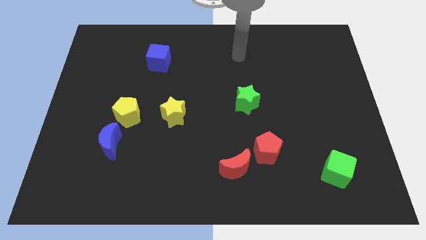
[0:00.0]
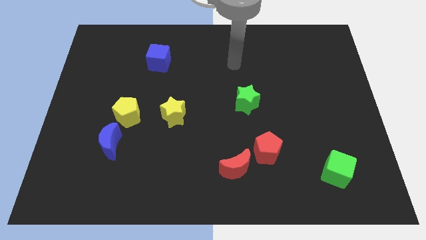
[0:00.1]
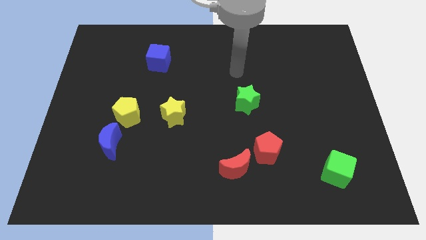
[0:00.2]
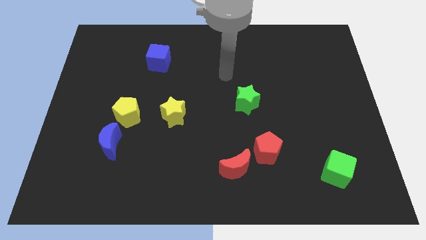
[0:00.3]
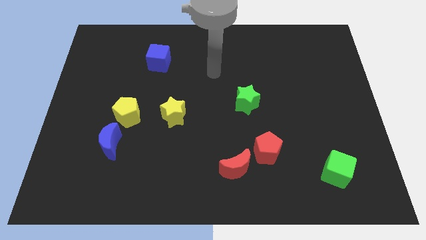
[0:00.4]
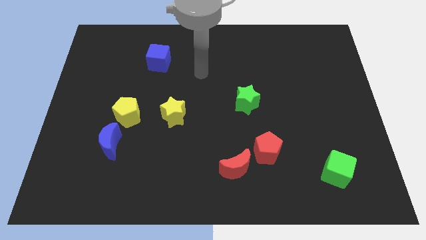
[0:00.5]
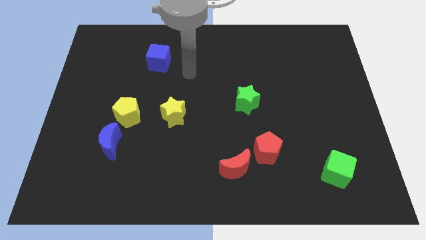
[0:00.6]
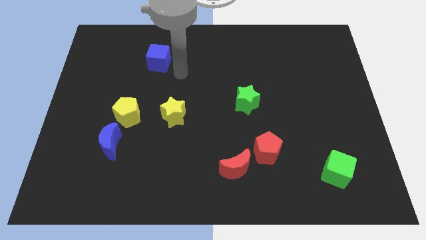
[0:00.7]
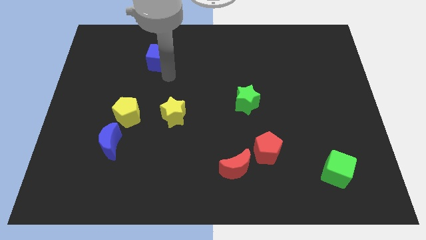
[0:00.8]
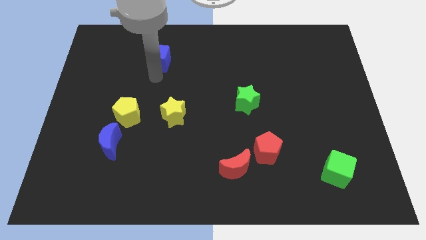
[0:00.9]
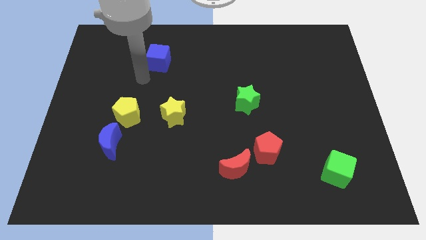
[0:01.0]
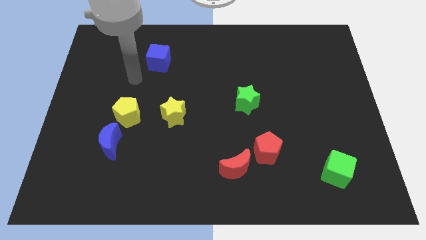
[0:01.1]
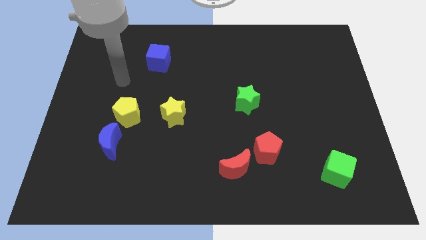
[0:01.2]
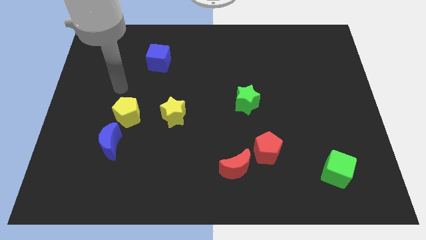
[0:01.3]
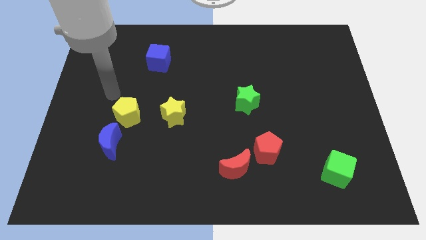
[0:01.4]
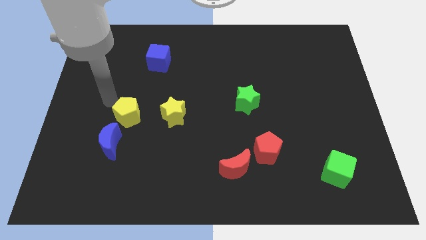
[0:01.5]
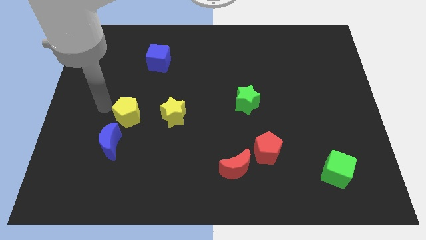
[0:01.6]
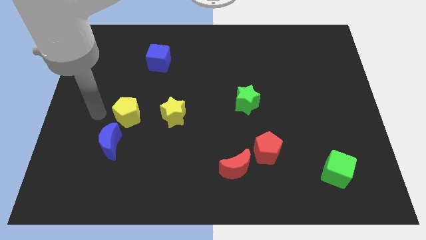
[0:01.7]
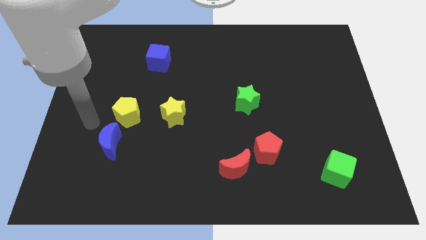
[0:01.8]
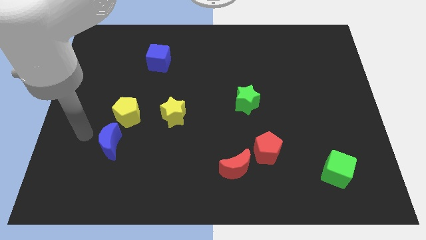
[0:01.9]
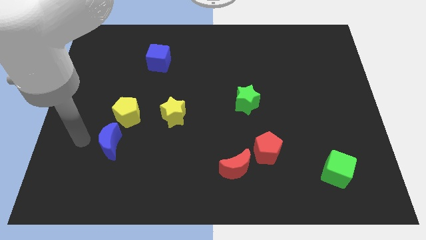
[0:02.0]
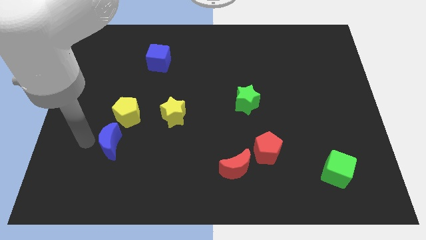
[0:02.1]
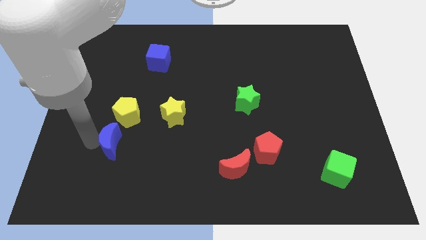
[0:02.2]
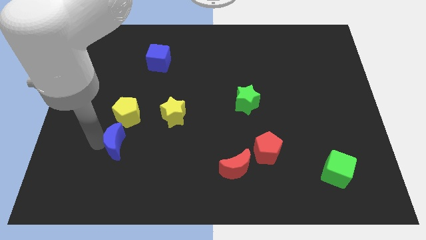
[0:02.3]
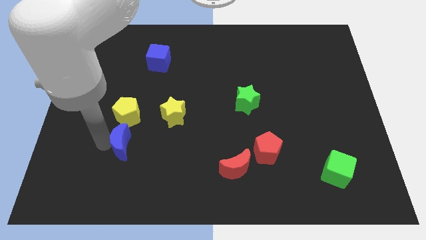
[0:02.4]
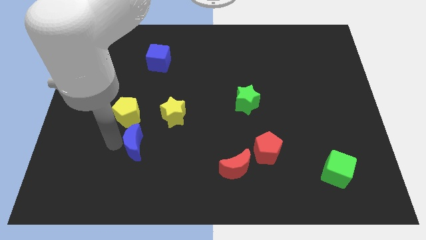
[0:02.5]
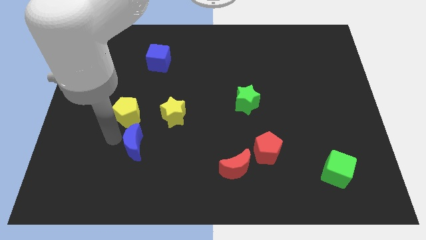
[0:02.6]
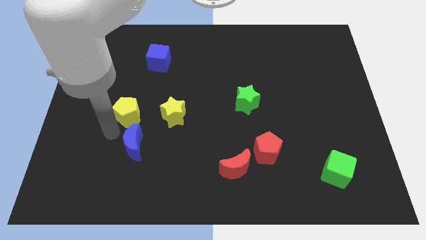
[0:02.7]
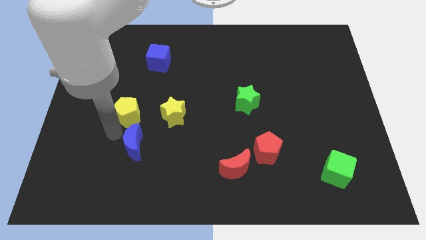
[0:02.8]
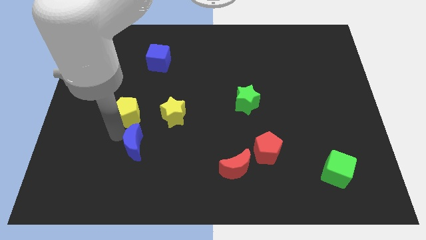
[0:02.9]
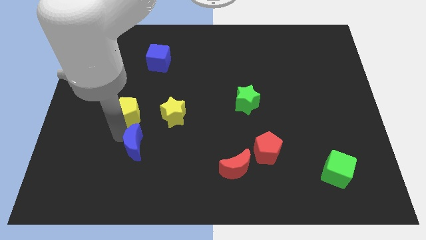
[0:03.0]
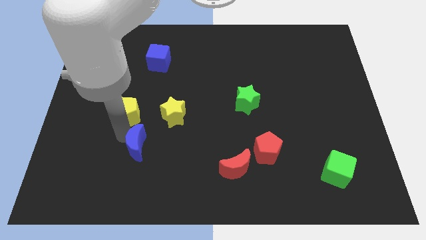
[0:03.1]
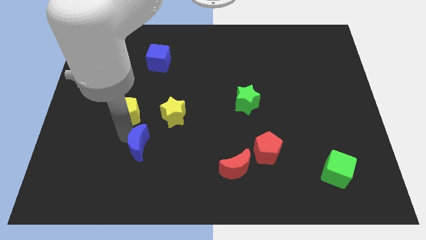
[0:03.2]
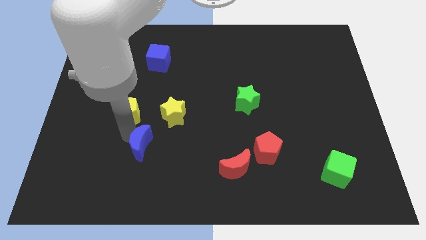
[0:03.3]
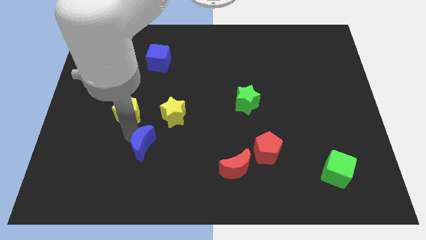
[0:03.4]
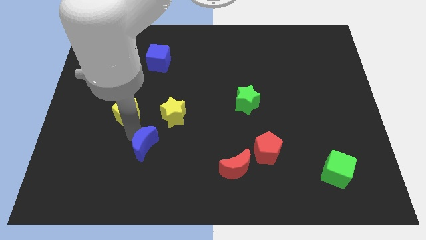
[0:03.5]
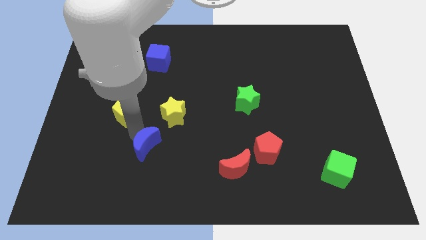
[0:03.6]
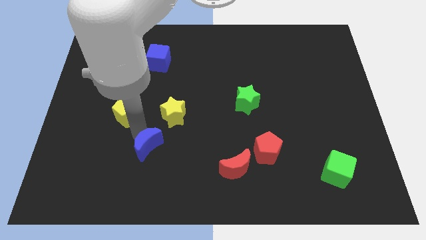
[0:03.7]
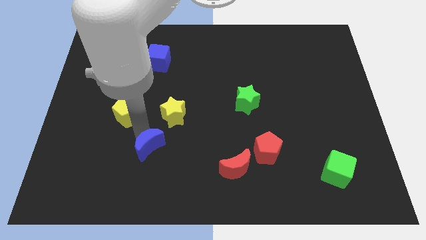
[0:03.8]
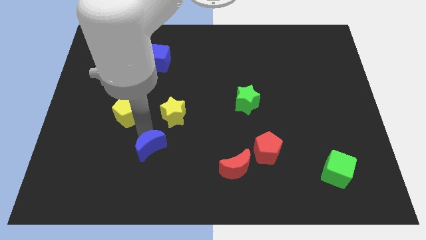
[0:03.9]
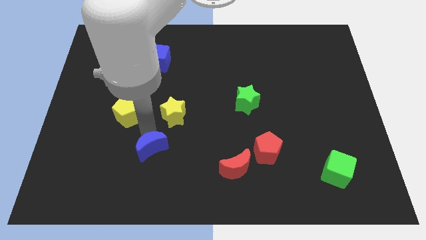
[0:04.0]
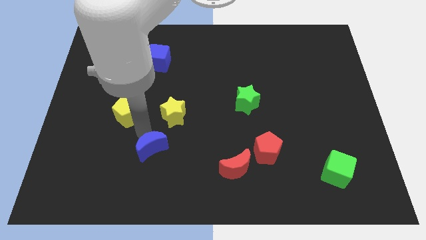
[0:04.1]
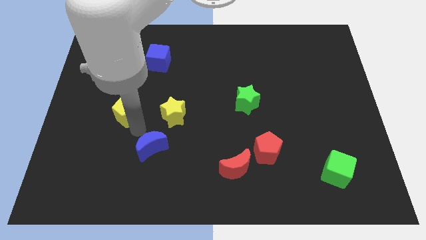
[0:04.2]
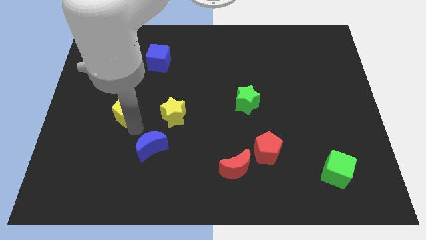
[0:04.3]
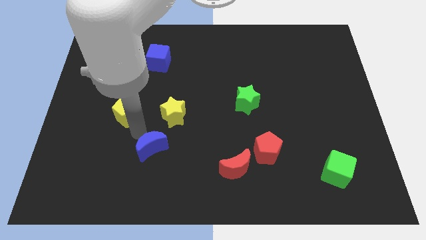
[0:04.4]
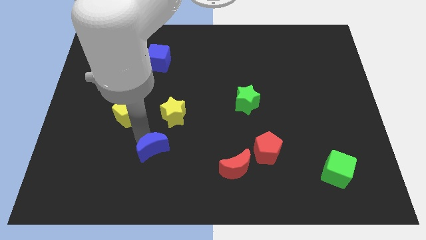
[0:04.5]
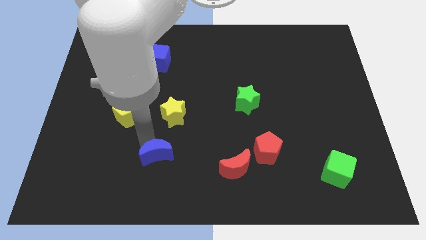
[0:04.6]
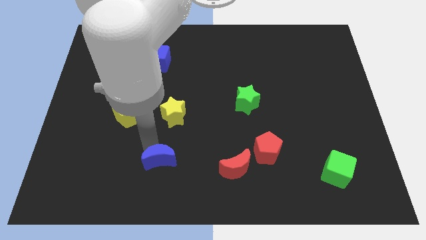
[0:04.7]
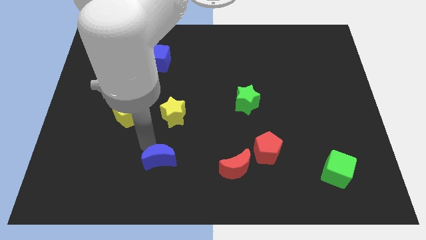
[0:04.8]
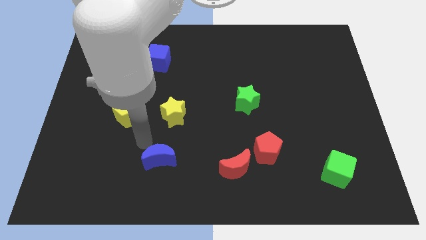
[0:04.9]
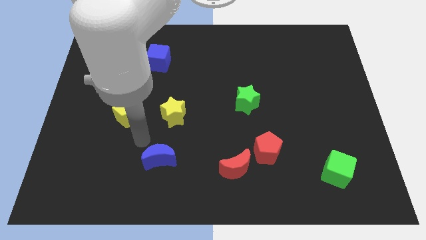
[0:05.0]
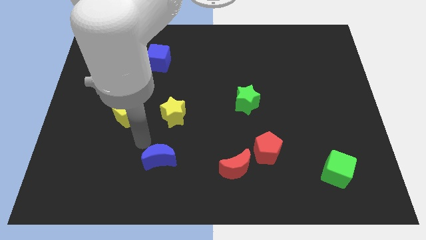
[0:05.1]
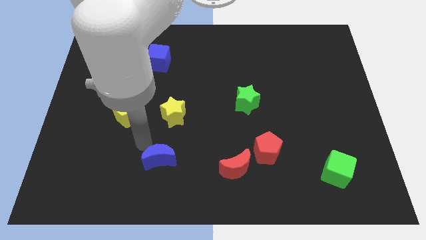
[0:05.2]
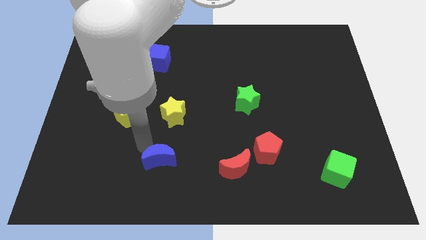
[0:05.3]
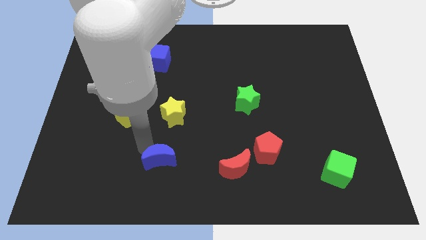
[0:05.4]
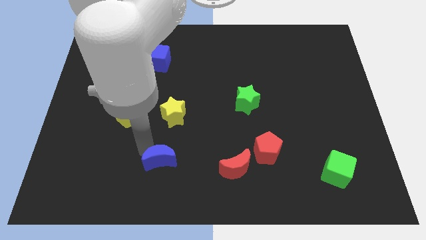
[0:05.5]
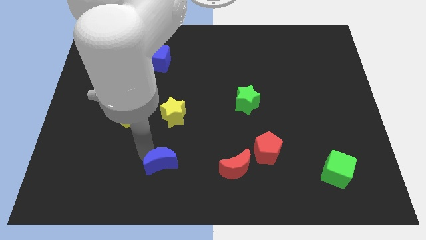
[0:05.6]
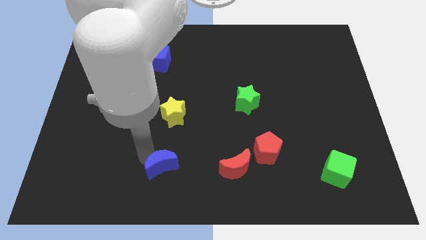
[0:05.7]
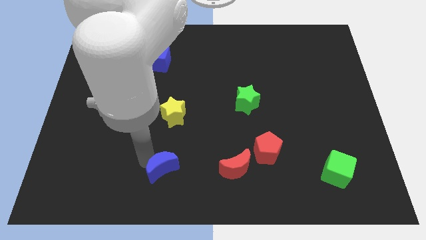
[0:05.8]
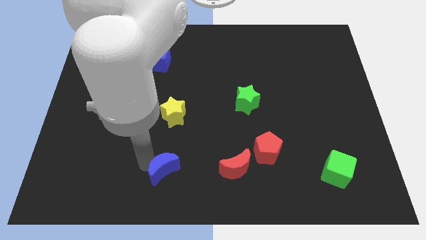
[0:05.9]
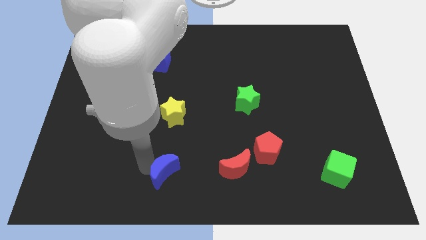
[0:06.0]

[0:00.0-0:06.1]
push the blue moon to the bottom side
